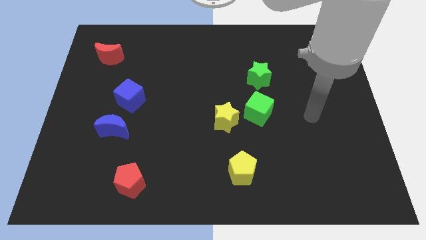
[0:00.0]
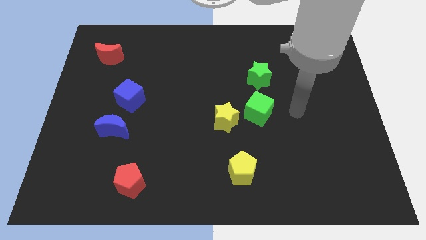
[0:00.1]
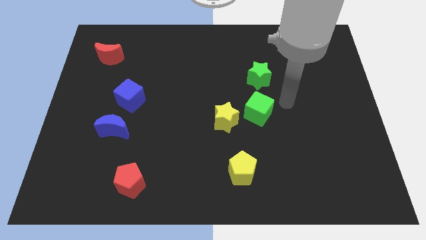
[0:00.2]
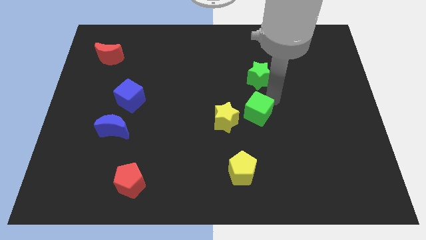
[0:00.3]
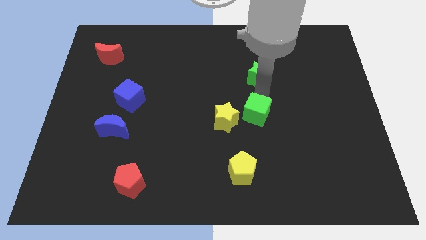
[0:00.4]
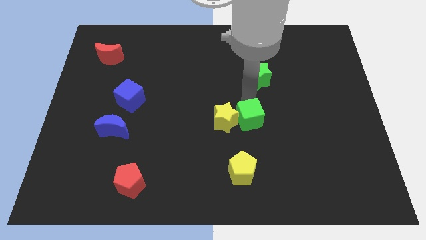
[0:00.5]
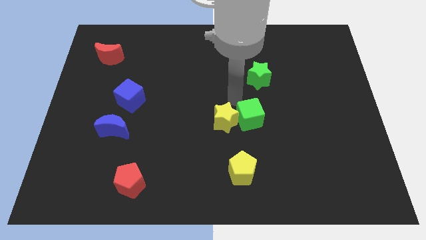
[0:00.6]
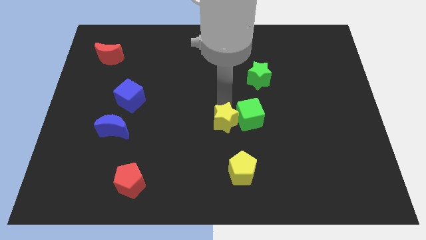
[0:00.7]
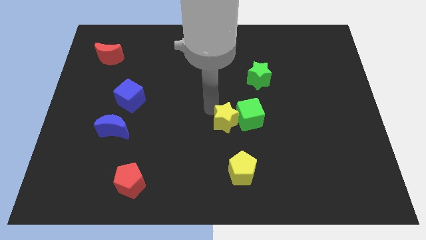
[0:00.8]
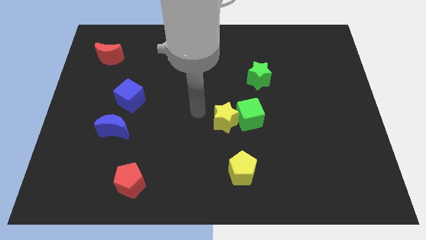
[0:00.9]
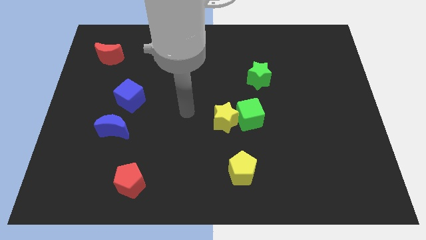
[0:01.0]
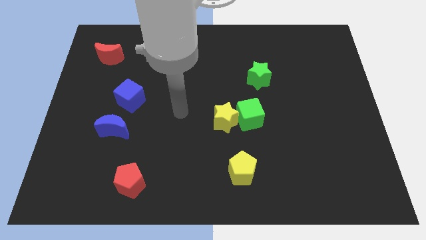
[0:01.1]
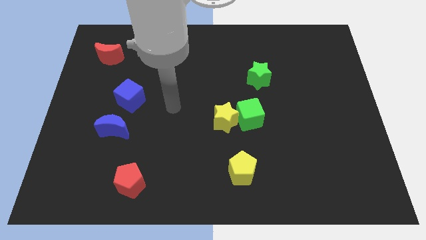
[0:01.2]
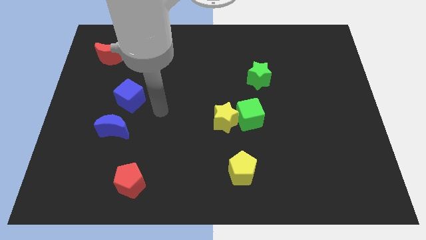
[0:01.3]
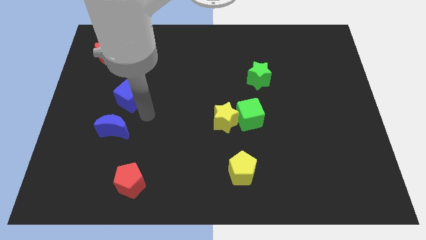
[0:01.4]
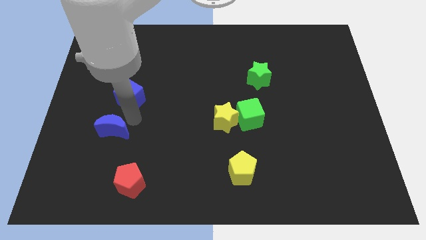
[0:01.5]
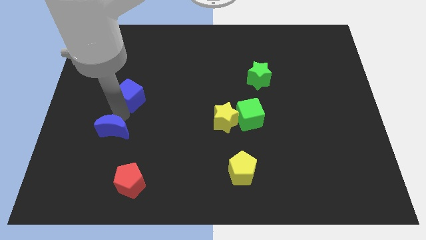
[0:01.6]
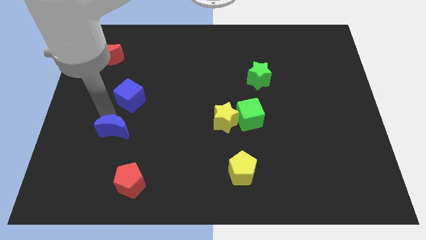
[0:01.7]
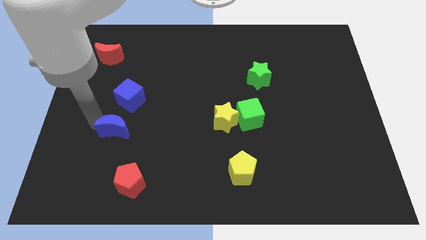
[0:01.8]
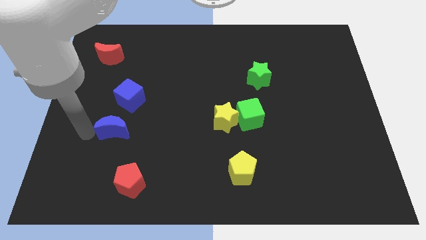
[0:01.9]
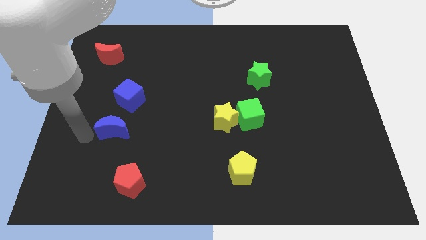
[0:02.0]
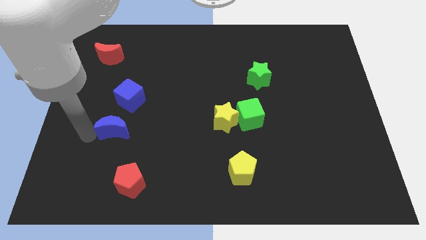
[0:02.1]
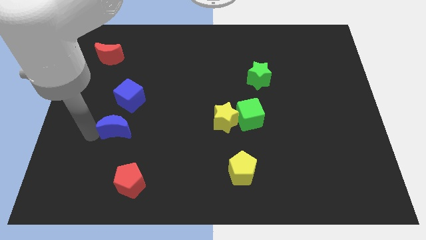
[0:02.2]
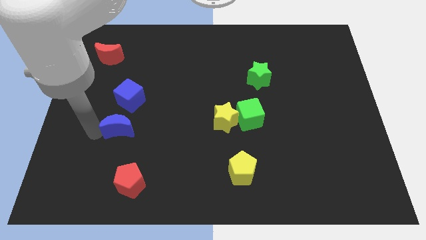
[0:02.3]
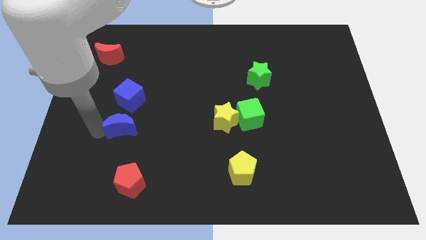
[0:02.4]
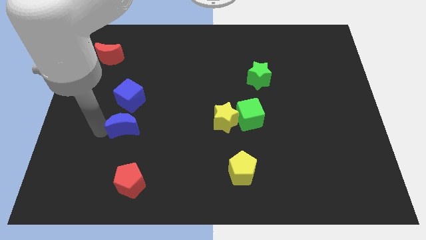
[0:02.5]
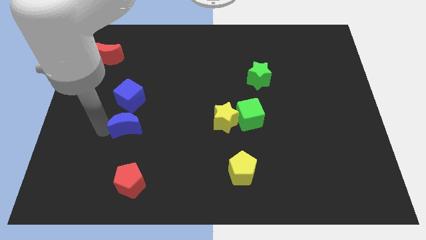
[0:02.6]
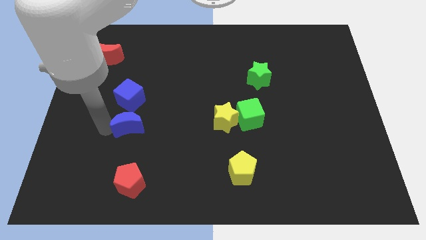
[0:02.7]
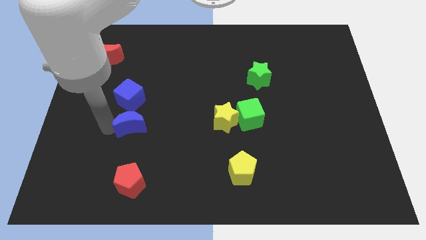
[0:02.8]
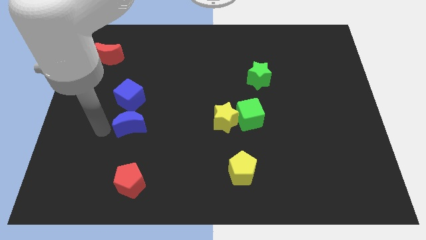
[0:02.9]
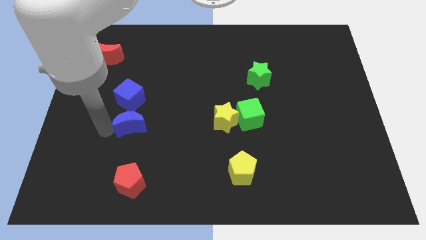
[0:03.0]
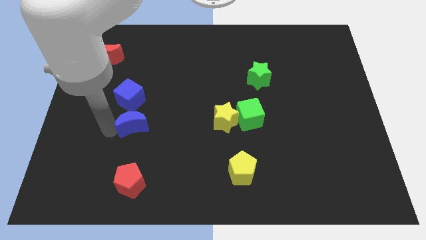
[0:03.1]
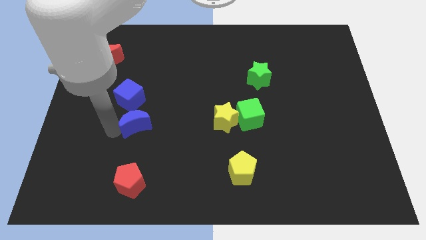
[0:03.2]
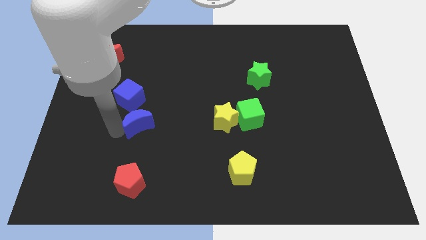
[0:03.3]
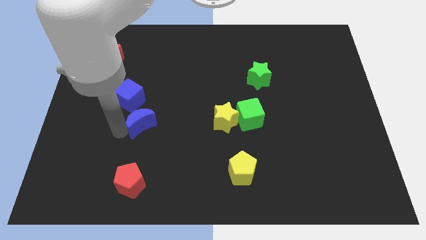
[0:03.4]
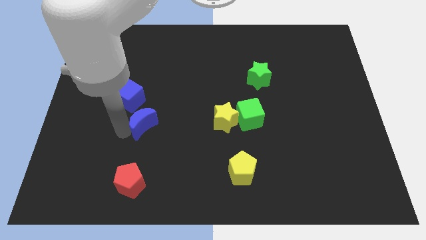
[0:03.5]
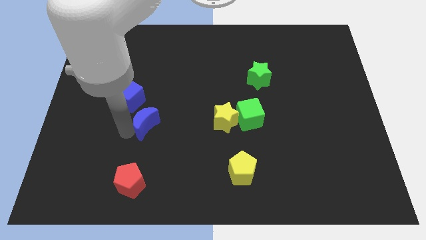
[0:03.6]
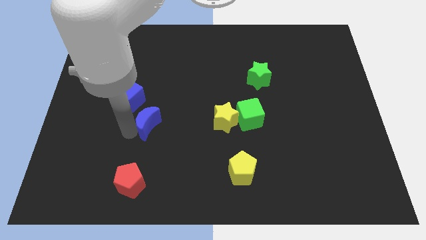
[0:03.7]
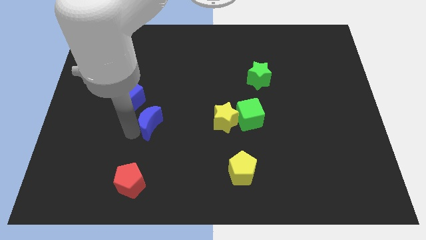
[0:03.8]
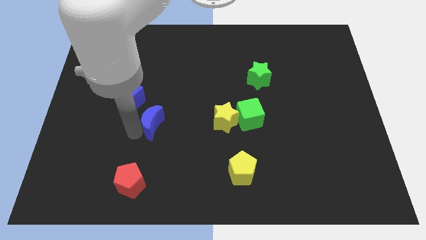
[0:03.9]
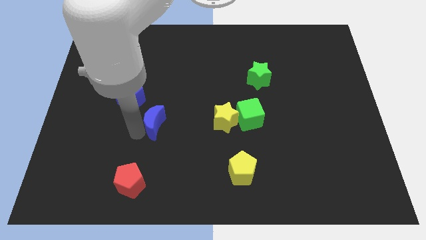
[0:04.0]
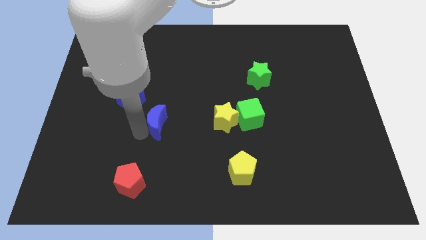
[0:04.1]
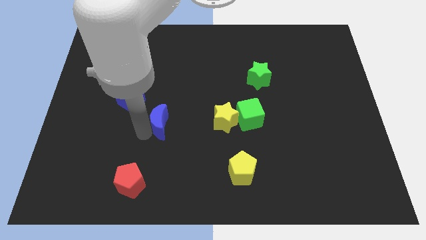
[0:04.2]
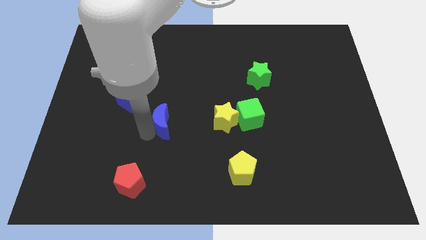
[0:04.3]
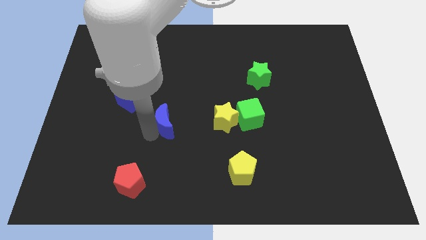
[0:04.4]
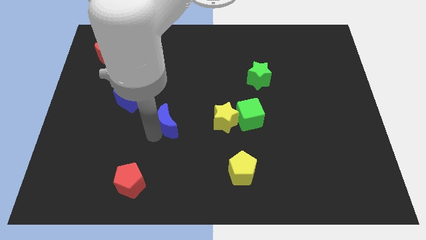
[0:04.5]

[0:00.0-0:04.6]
move the blue moon to the center

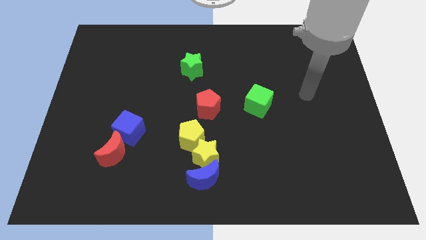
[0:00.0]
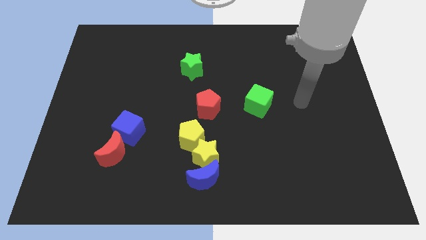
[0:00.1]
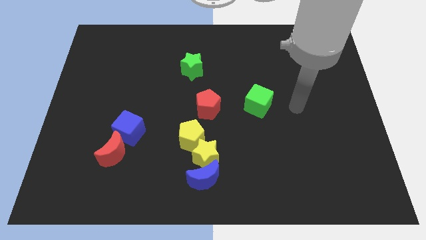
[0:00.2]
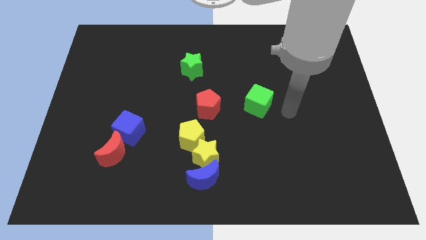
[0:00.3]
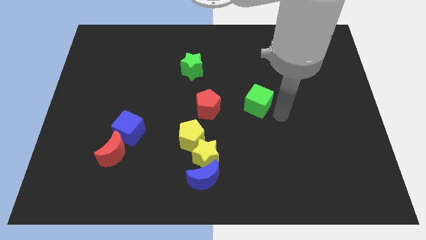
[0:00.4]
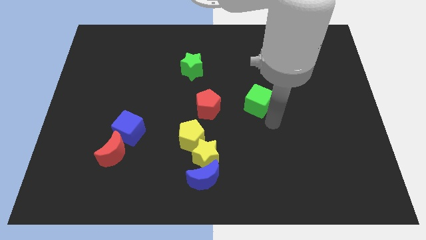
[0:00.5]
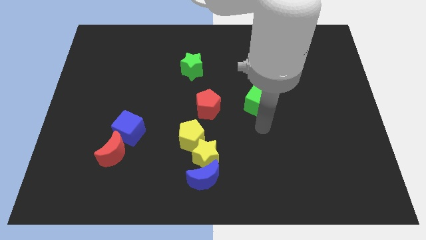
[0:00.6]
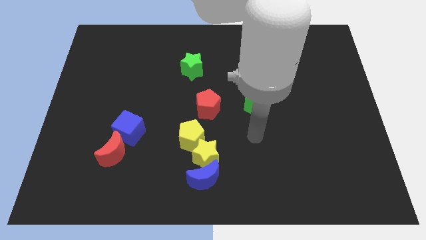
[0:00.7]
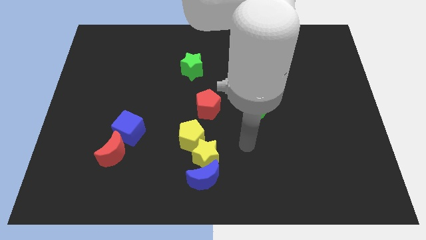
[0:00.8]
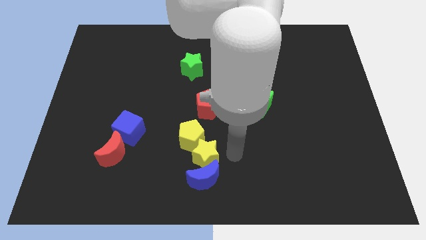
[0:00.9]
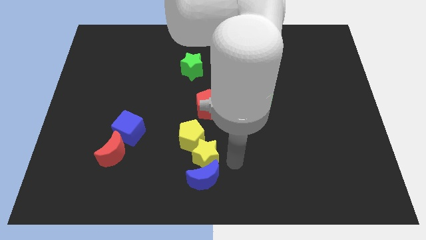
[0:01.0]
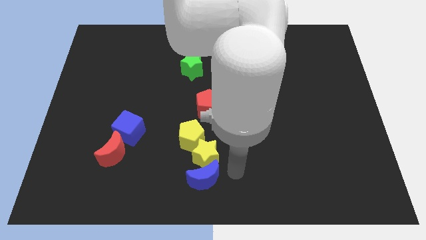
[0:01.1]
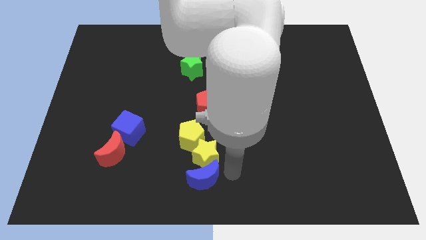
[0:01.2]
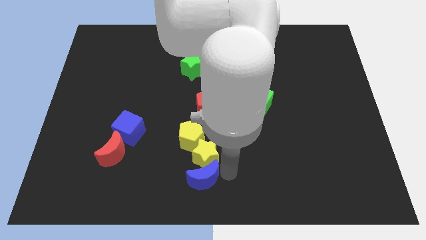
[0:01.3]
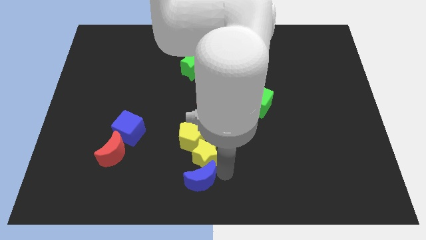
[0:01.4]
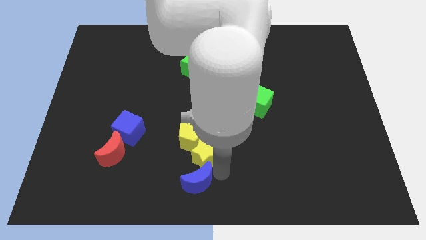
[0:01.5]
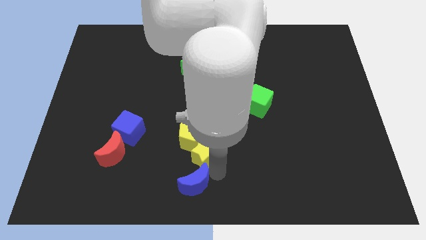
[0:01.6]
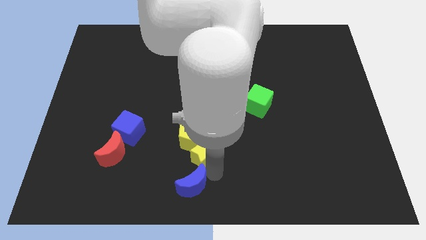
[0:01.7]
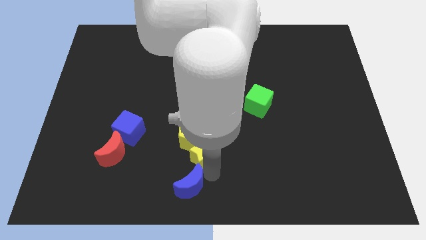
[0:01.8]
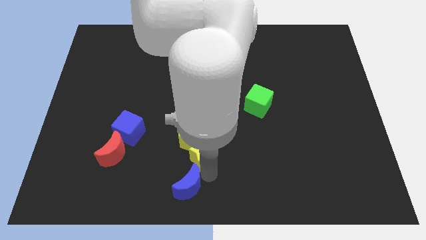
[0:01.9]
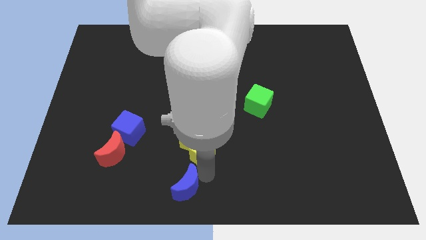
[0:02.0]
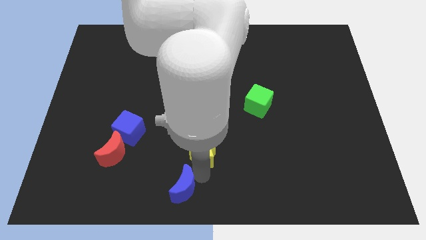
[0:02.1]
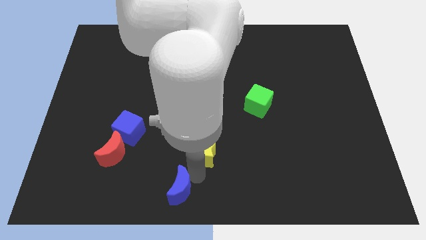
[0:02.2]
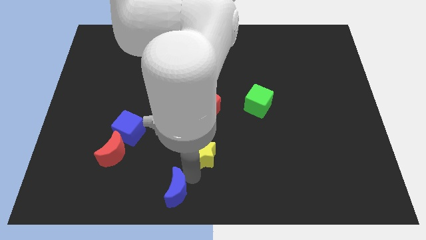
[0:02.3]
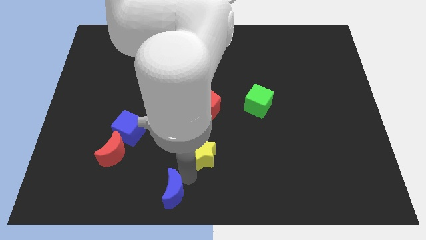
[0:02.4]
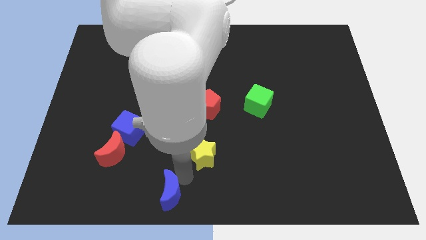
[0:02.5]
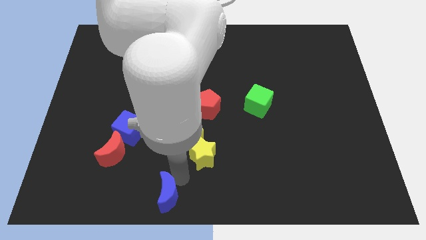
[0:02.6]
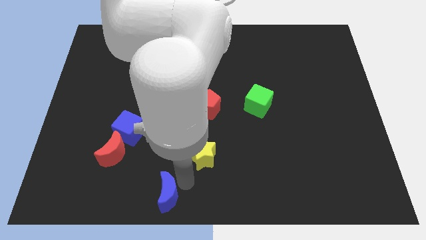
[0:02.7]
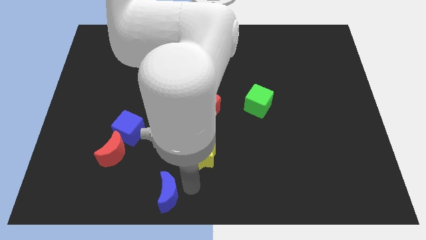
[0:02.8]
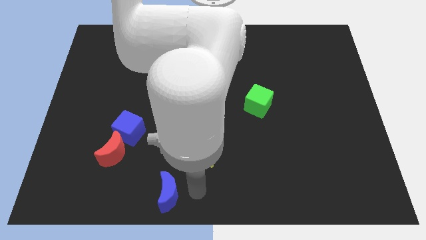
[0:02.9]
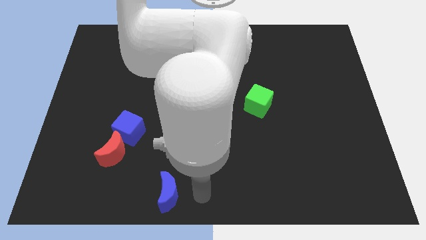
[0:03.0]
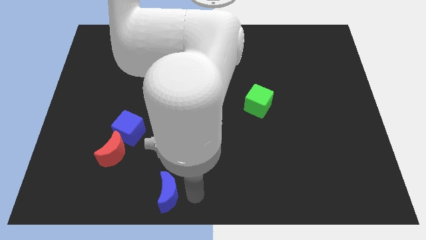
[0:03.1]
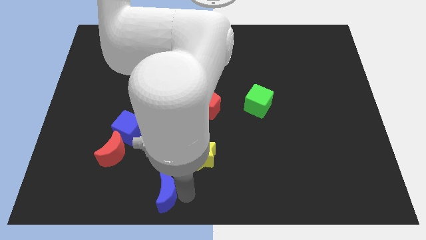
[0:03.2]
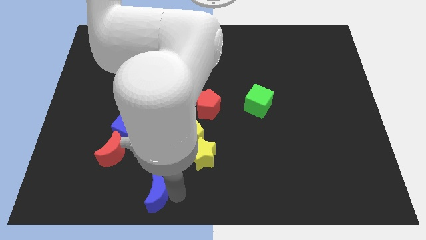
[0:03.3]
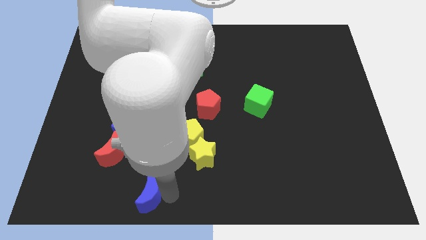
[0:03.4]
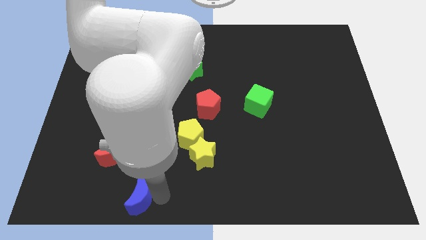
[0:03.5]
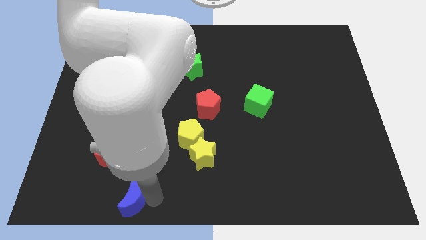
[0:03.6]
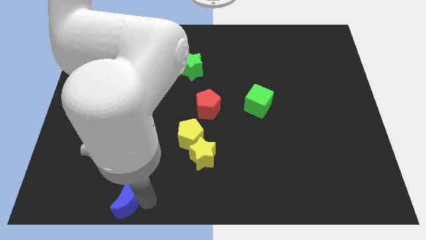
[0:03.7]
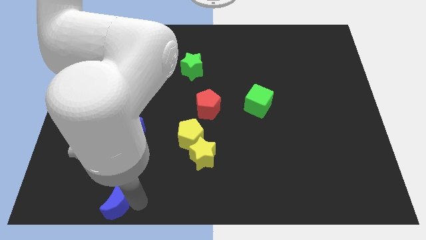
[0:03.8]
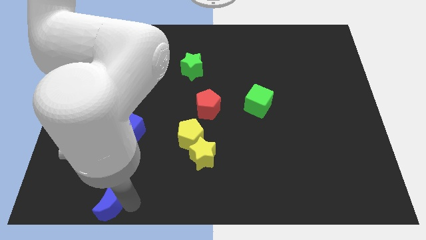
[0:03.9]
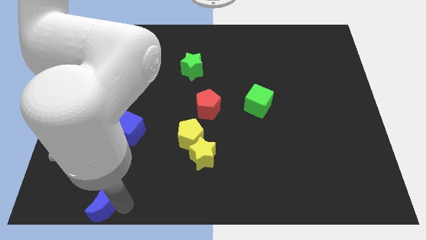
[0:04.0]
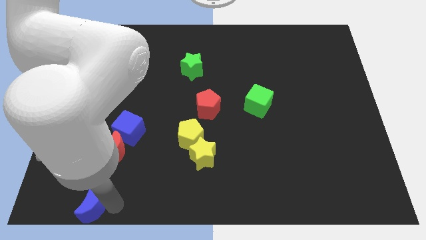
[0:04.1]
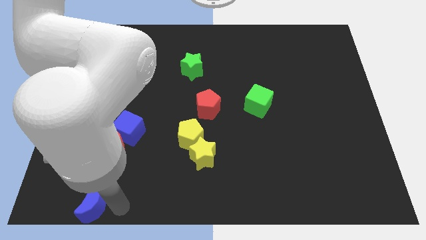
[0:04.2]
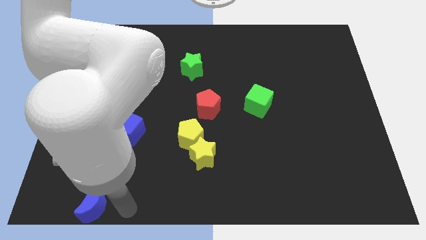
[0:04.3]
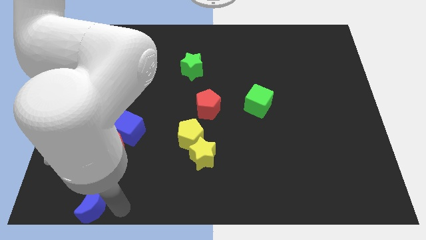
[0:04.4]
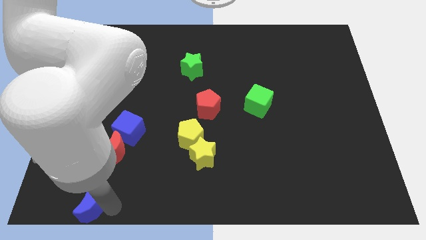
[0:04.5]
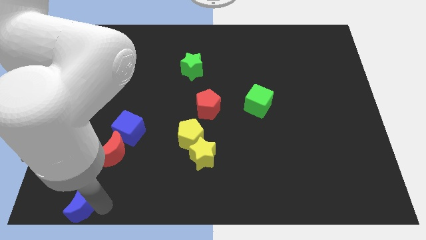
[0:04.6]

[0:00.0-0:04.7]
slide the blue moon to the lower left corner
